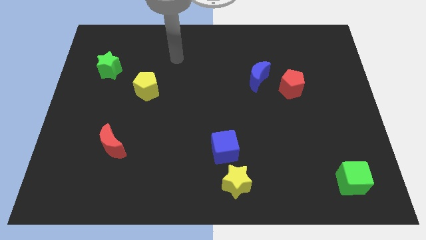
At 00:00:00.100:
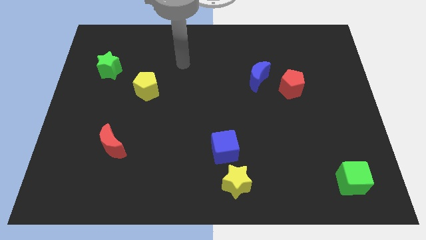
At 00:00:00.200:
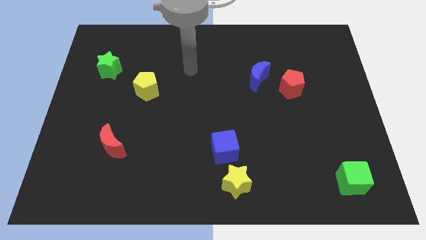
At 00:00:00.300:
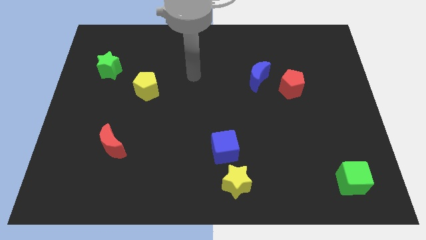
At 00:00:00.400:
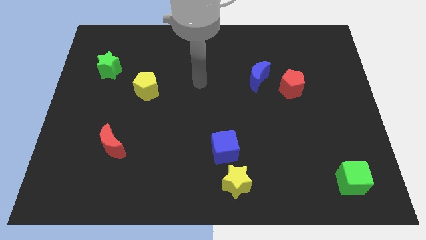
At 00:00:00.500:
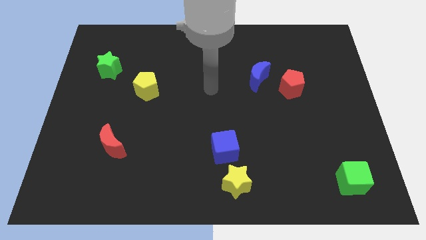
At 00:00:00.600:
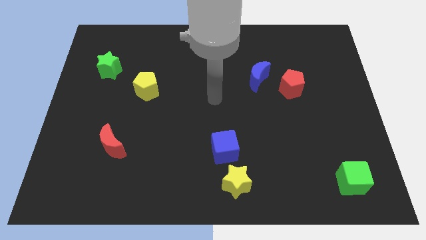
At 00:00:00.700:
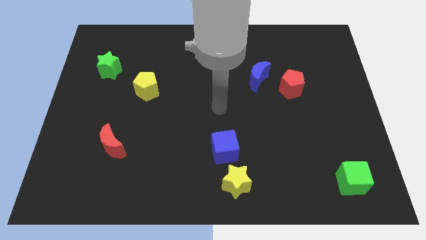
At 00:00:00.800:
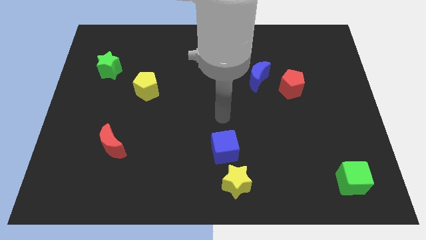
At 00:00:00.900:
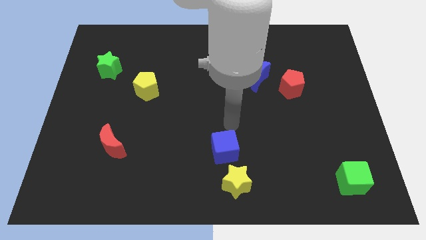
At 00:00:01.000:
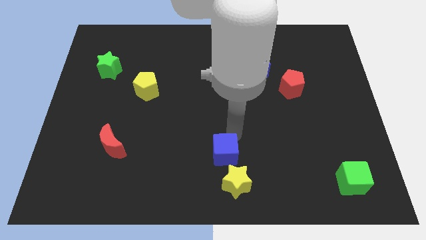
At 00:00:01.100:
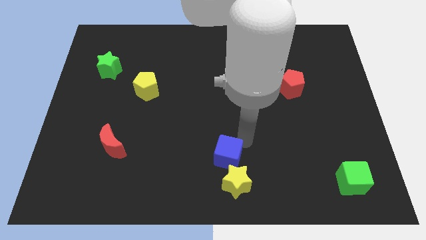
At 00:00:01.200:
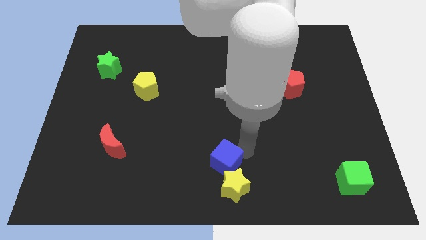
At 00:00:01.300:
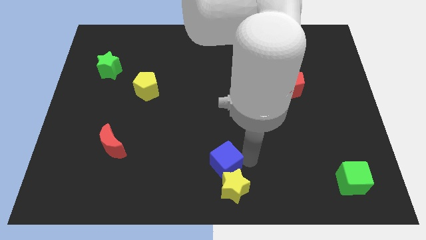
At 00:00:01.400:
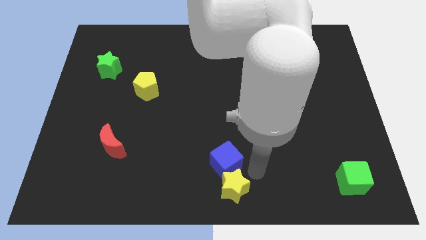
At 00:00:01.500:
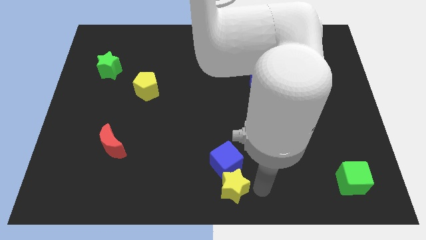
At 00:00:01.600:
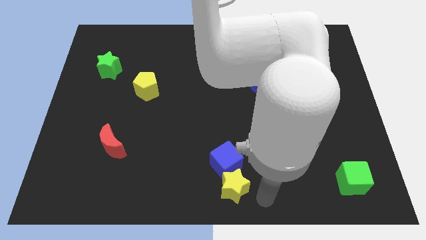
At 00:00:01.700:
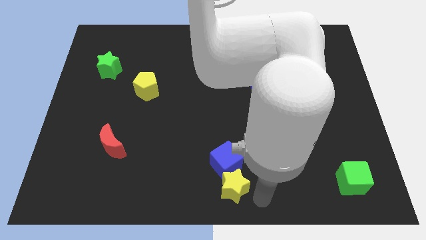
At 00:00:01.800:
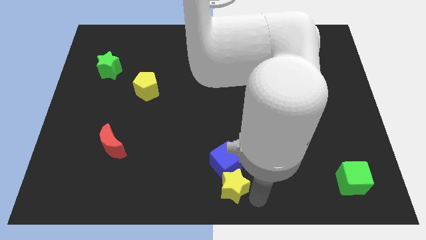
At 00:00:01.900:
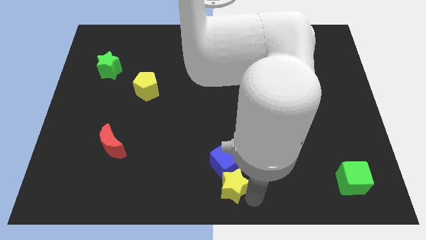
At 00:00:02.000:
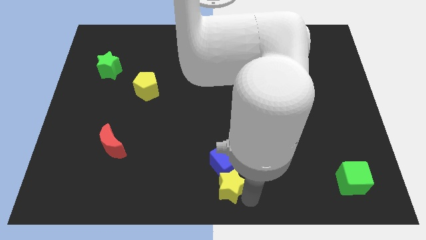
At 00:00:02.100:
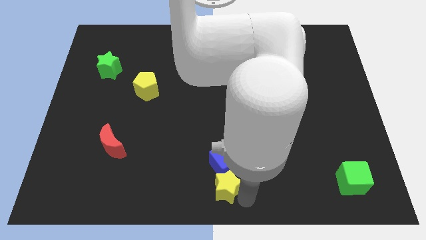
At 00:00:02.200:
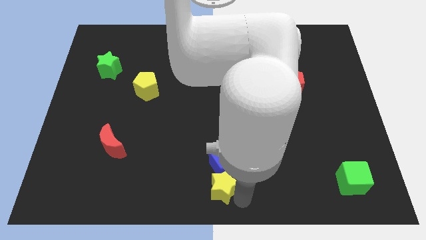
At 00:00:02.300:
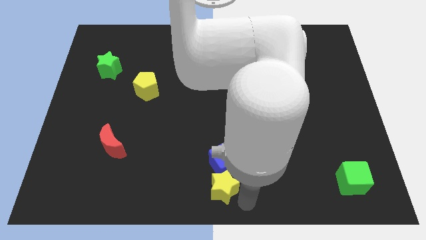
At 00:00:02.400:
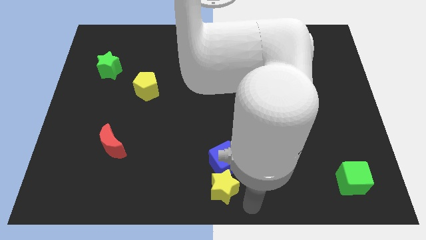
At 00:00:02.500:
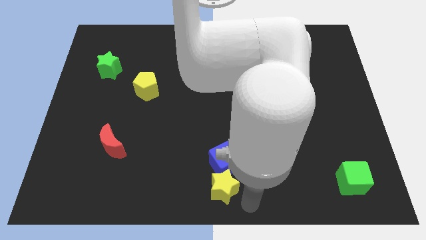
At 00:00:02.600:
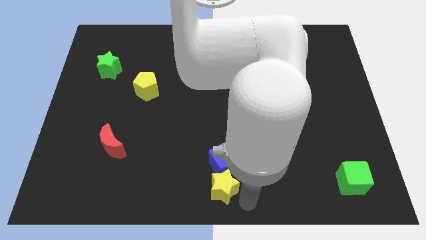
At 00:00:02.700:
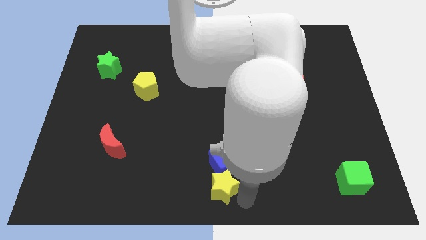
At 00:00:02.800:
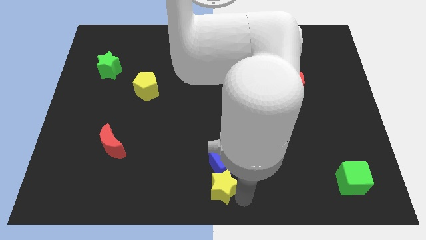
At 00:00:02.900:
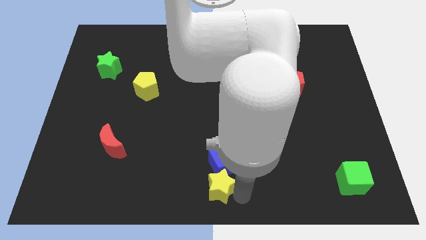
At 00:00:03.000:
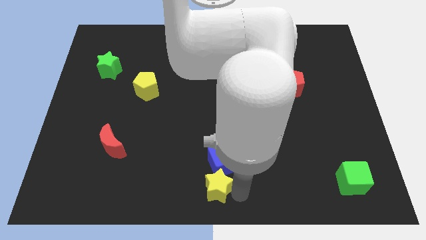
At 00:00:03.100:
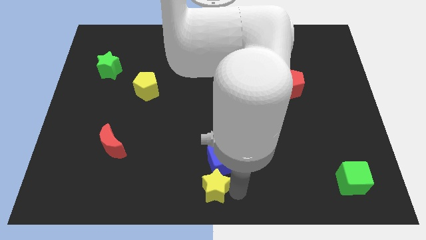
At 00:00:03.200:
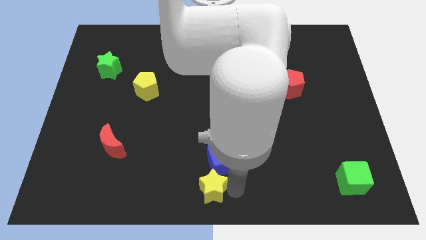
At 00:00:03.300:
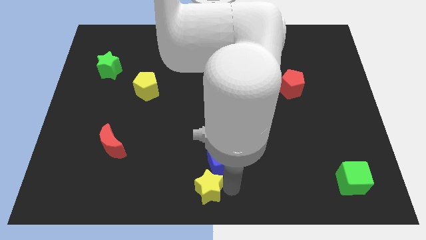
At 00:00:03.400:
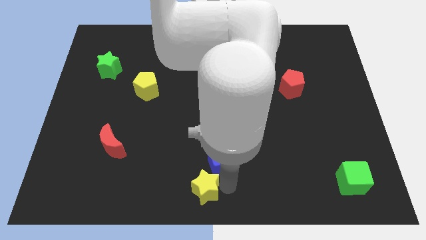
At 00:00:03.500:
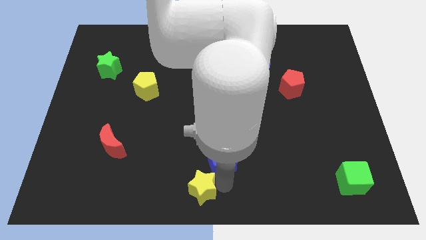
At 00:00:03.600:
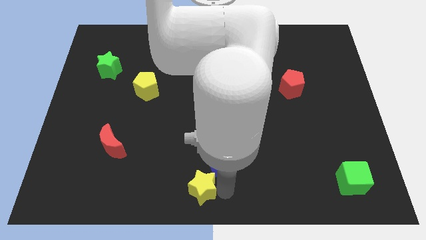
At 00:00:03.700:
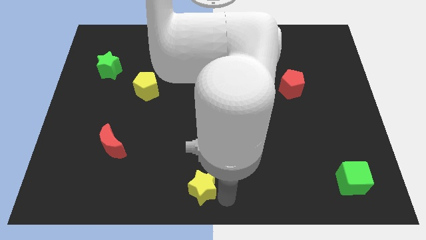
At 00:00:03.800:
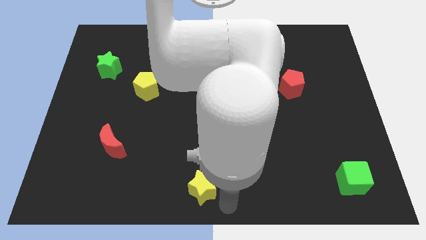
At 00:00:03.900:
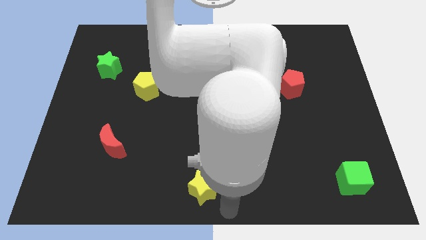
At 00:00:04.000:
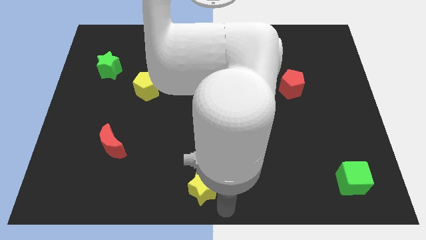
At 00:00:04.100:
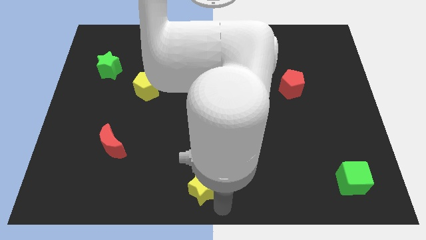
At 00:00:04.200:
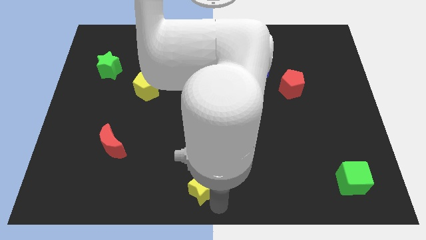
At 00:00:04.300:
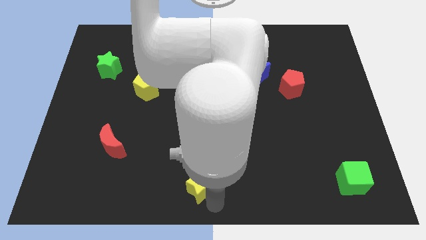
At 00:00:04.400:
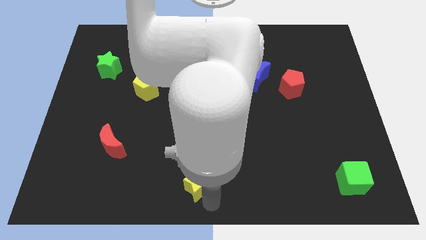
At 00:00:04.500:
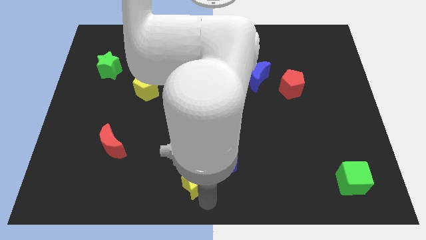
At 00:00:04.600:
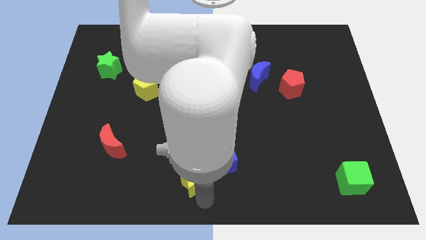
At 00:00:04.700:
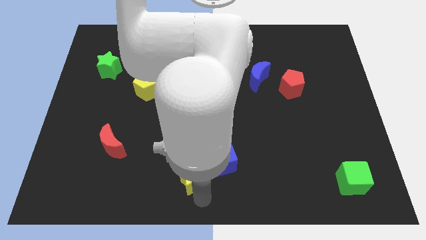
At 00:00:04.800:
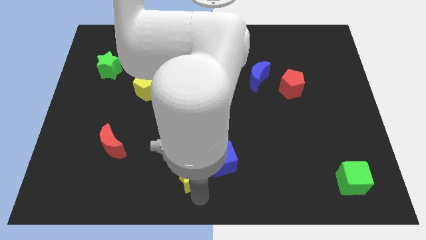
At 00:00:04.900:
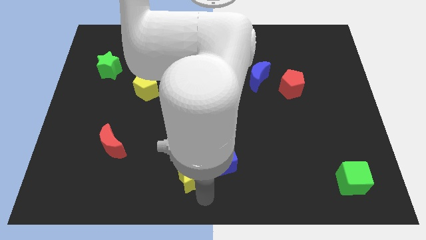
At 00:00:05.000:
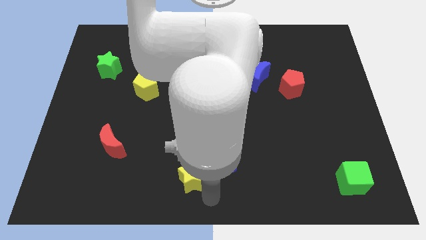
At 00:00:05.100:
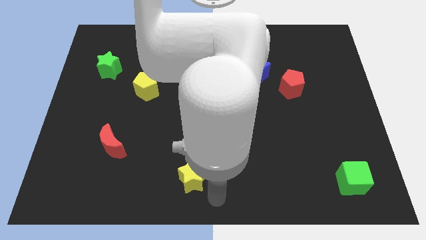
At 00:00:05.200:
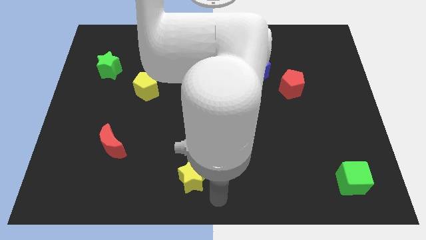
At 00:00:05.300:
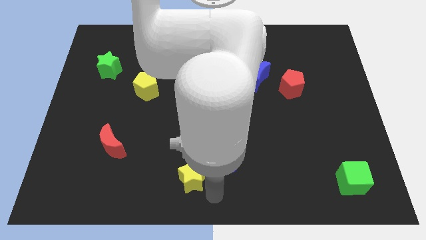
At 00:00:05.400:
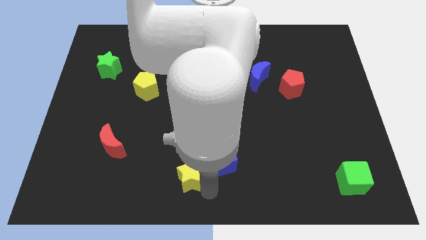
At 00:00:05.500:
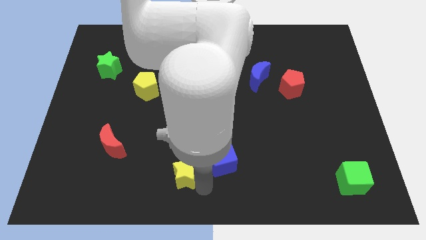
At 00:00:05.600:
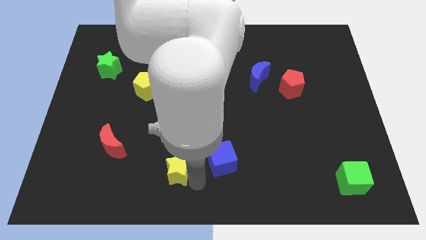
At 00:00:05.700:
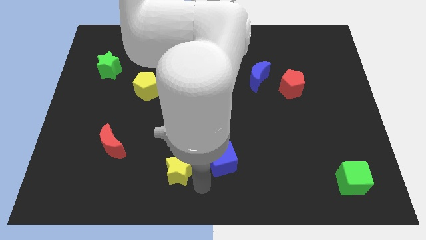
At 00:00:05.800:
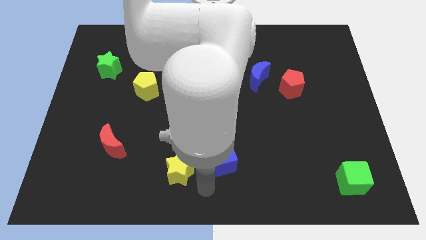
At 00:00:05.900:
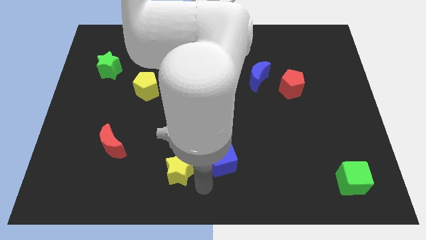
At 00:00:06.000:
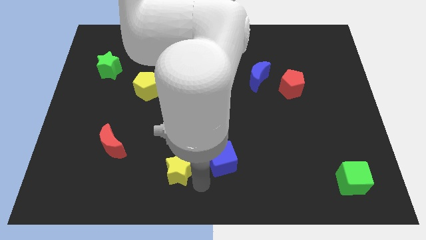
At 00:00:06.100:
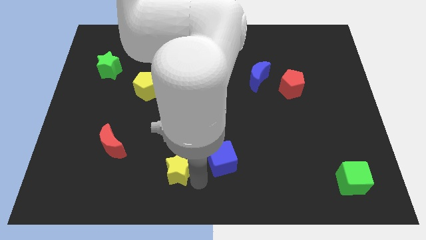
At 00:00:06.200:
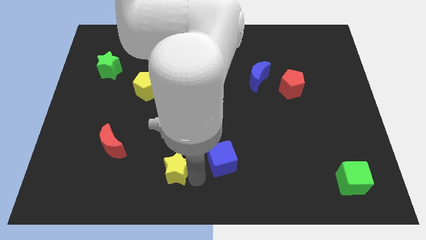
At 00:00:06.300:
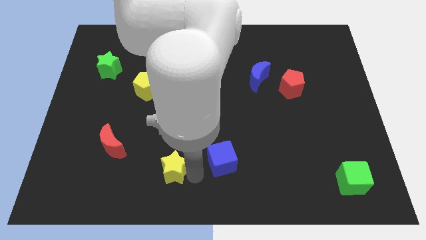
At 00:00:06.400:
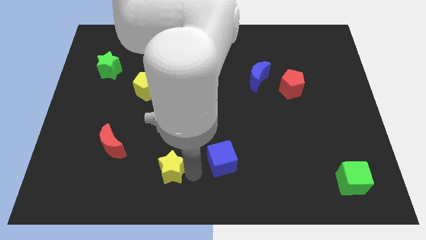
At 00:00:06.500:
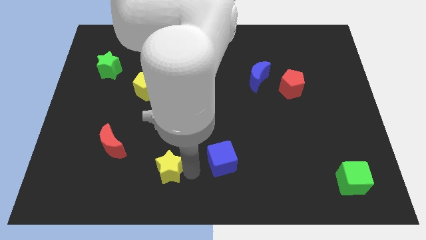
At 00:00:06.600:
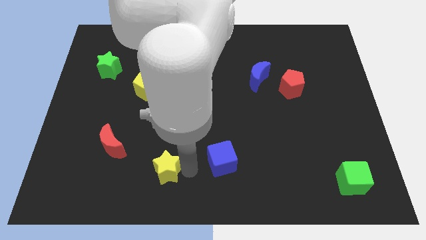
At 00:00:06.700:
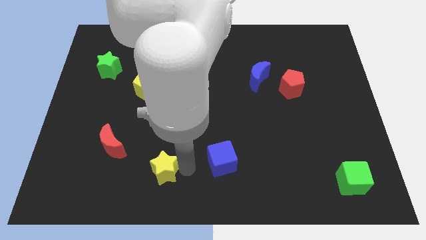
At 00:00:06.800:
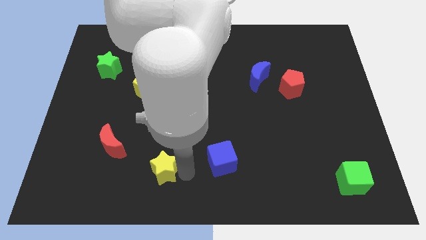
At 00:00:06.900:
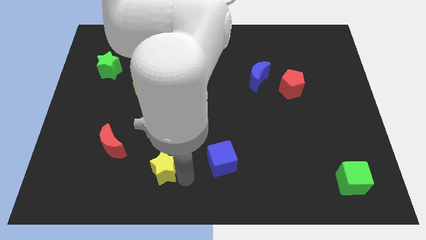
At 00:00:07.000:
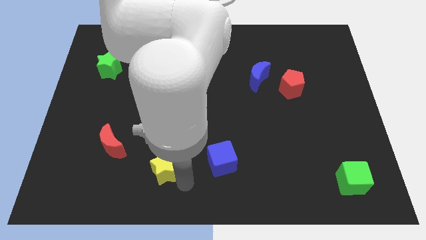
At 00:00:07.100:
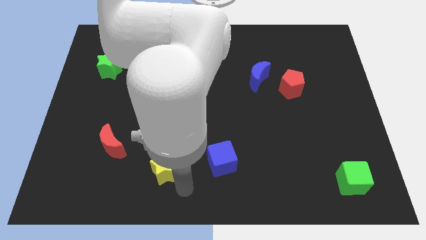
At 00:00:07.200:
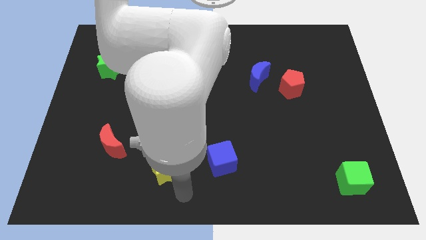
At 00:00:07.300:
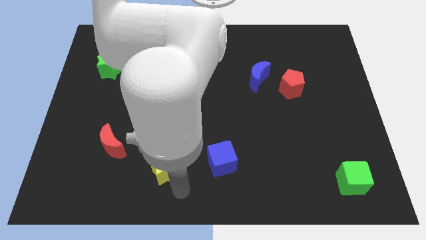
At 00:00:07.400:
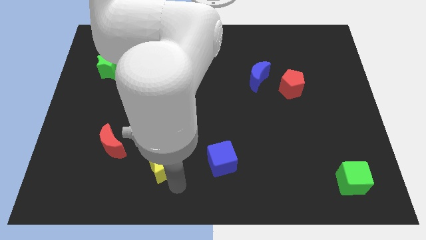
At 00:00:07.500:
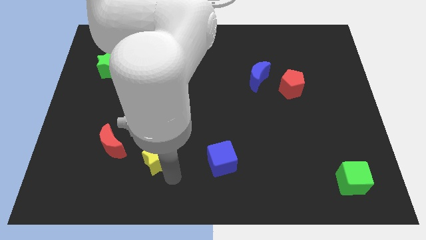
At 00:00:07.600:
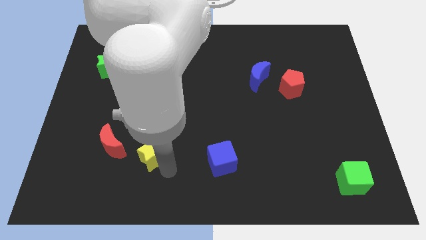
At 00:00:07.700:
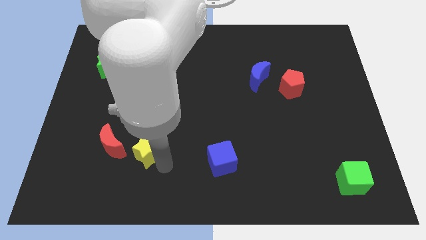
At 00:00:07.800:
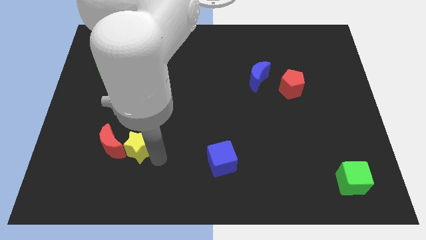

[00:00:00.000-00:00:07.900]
push the yellow star towards the red moon
